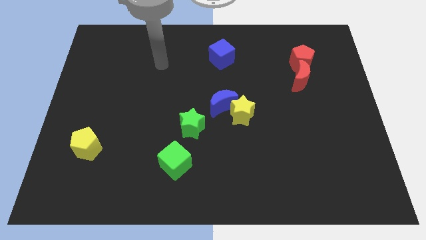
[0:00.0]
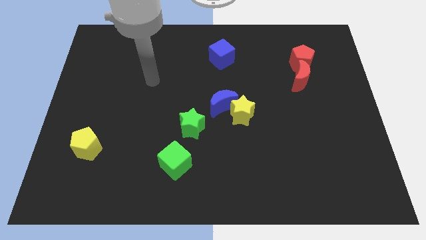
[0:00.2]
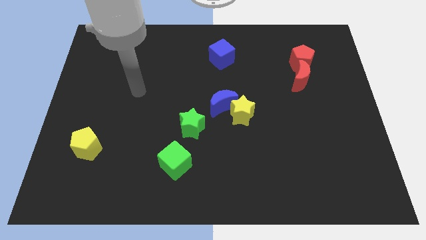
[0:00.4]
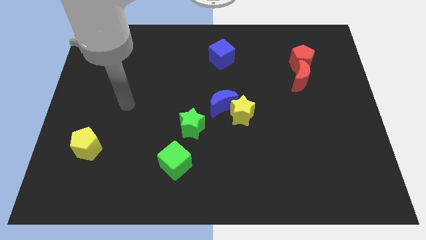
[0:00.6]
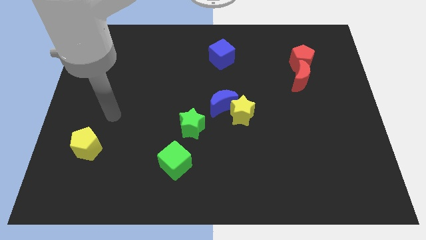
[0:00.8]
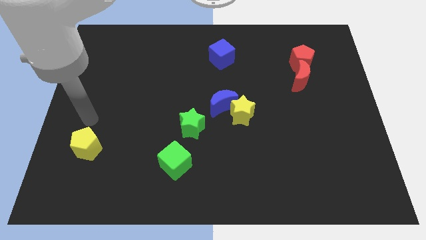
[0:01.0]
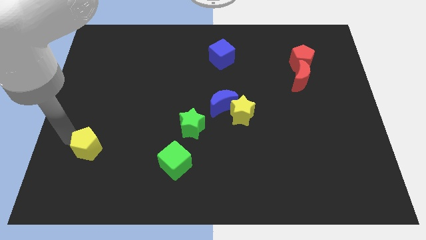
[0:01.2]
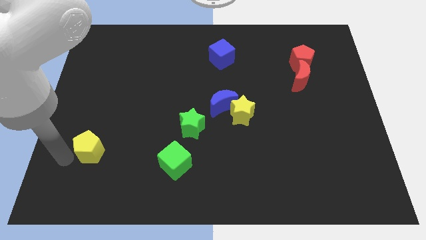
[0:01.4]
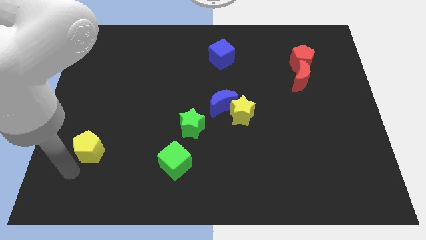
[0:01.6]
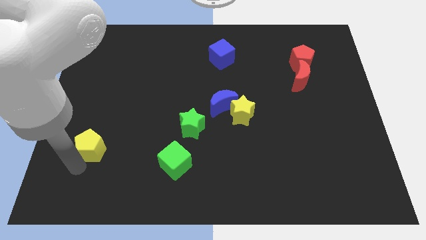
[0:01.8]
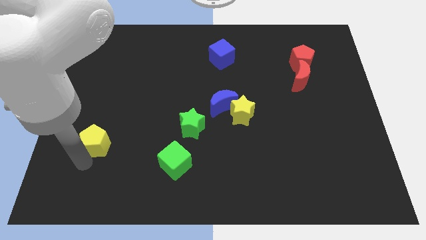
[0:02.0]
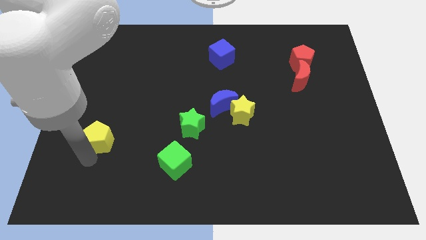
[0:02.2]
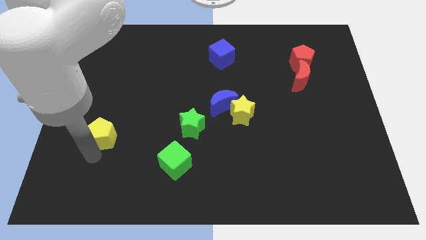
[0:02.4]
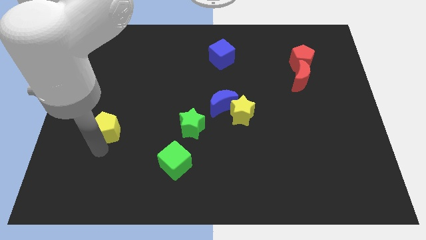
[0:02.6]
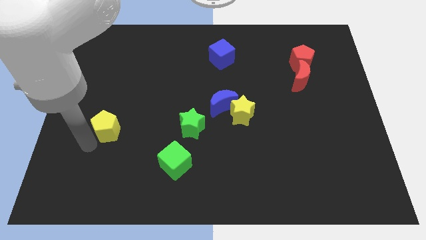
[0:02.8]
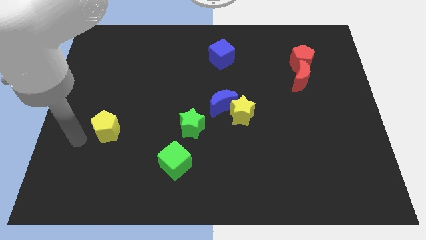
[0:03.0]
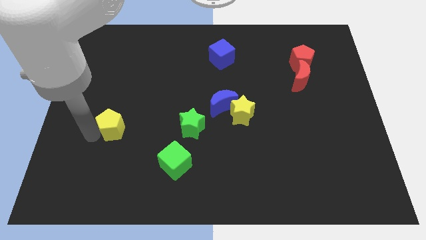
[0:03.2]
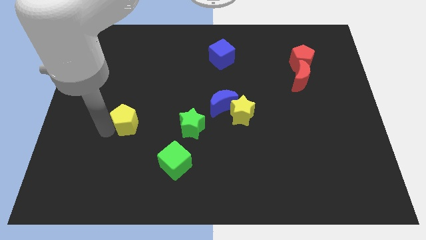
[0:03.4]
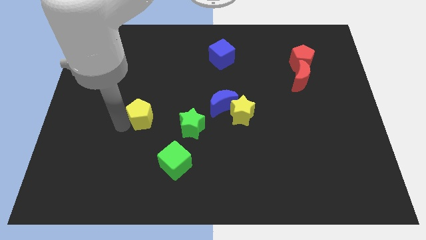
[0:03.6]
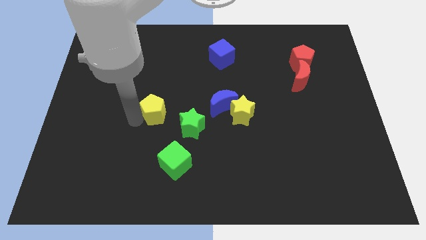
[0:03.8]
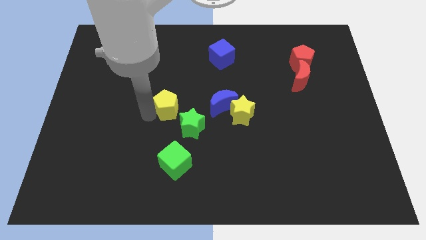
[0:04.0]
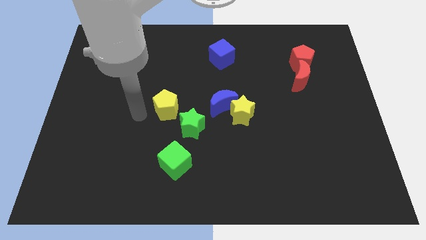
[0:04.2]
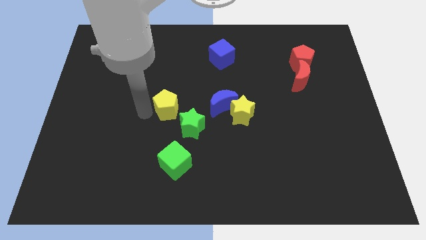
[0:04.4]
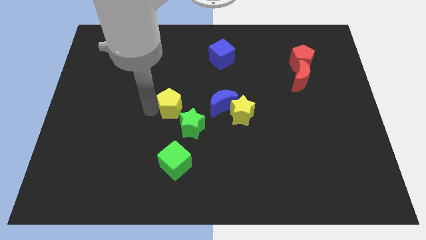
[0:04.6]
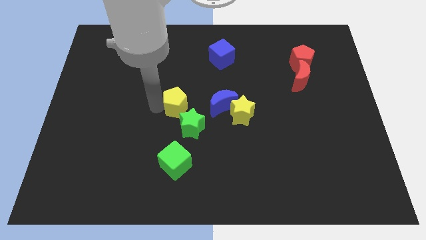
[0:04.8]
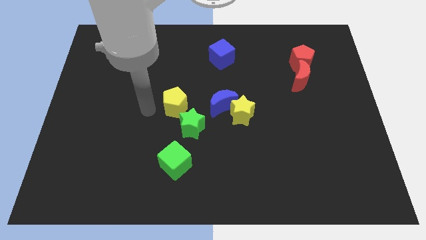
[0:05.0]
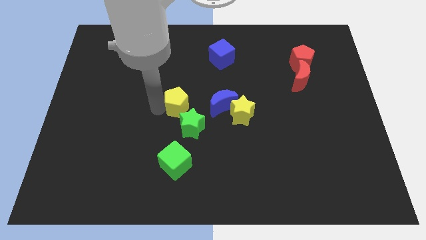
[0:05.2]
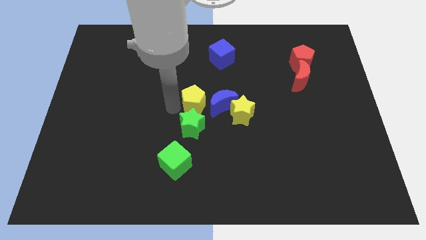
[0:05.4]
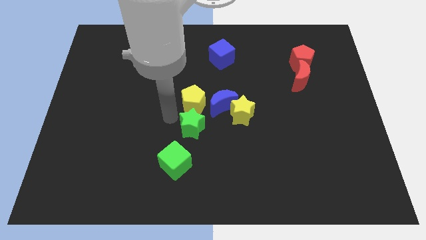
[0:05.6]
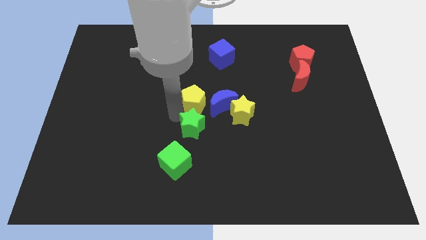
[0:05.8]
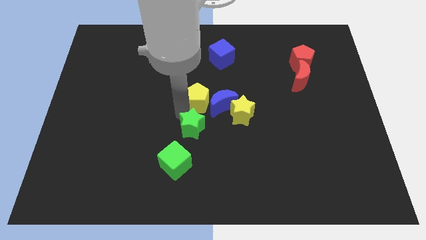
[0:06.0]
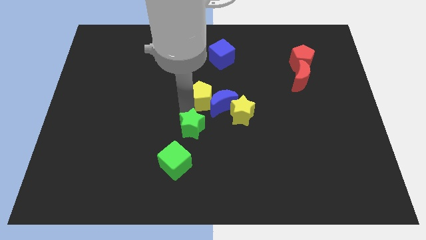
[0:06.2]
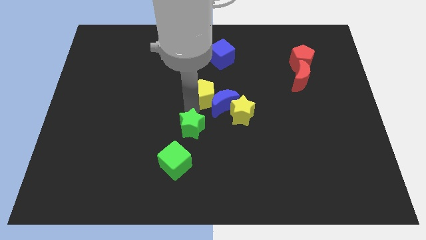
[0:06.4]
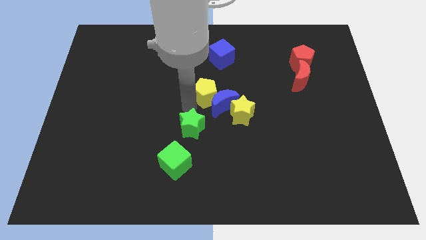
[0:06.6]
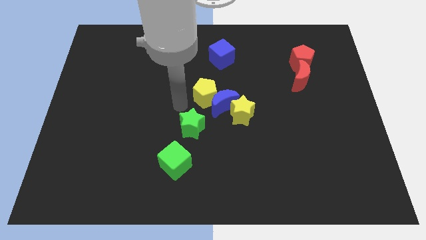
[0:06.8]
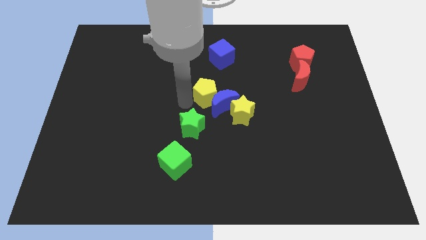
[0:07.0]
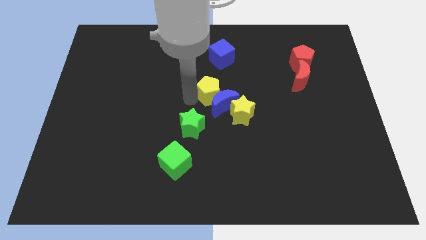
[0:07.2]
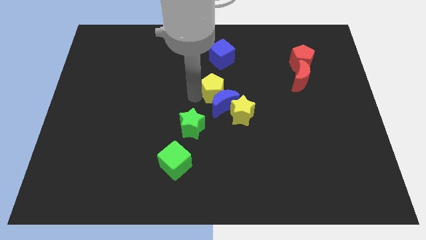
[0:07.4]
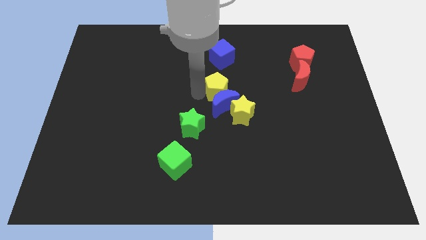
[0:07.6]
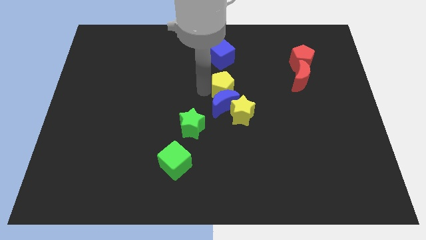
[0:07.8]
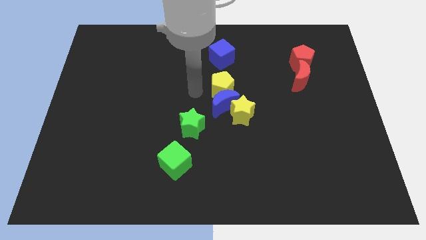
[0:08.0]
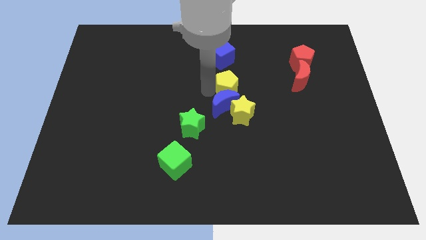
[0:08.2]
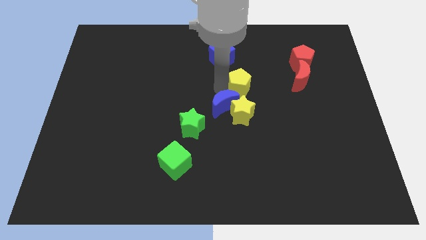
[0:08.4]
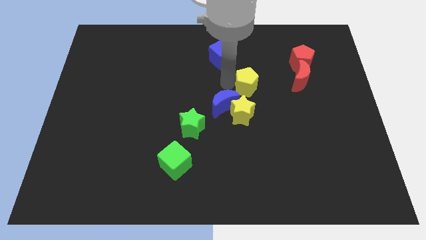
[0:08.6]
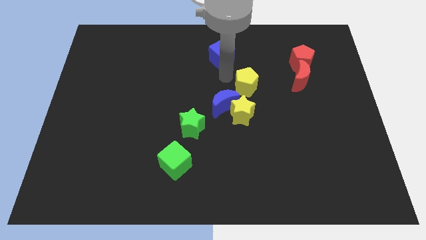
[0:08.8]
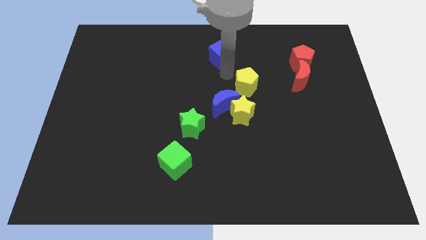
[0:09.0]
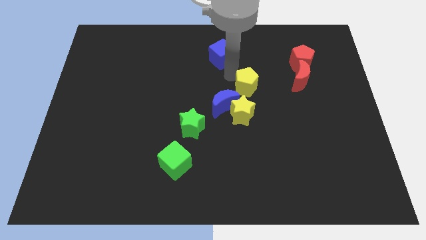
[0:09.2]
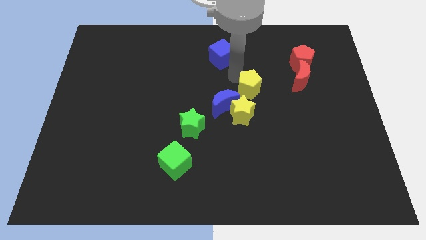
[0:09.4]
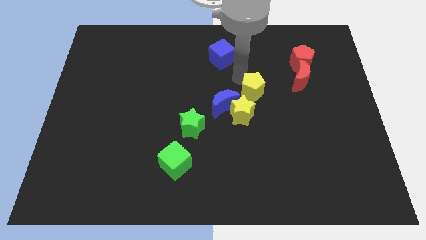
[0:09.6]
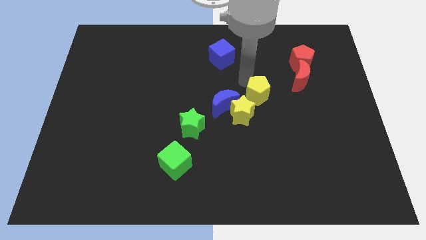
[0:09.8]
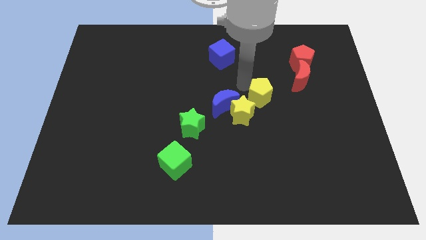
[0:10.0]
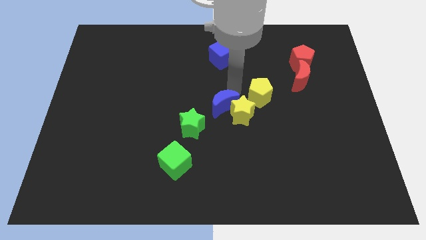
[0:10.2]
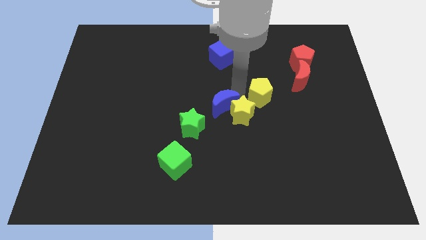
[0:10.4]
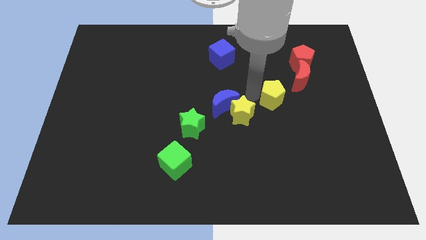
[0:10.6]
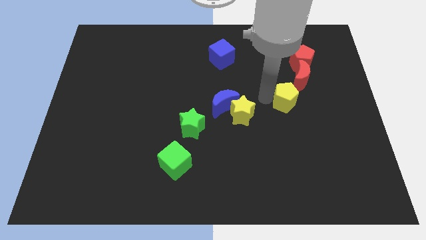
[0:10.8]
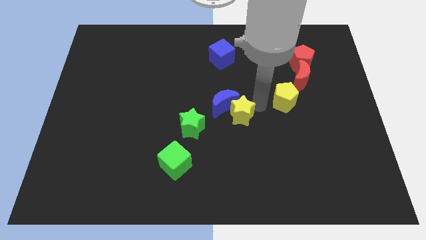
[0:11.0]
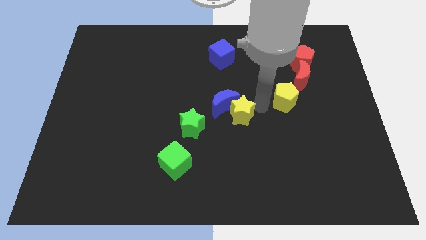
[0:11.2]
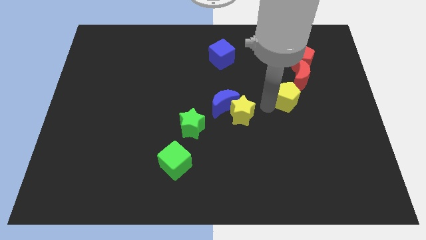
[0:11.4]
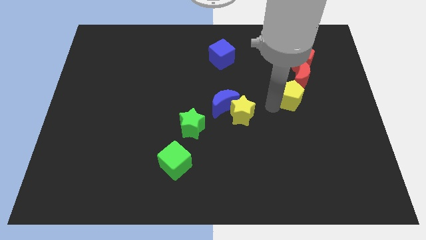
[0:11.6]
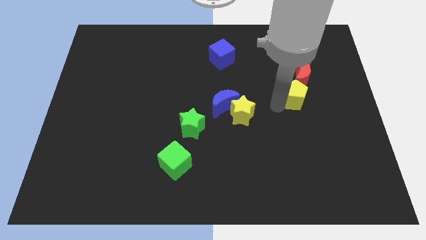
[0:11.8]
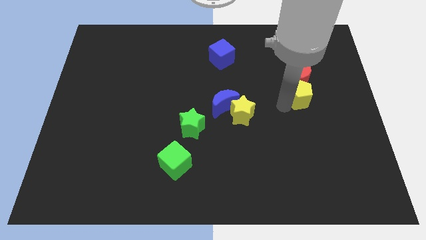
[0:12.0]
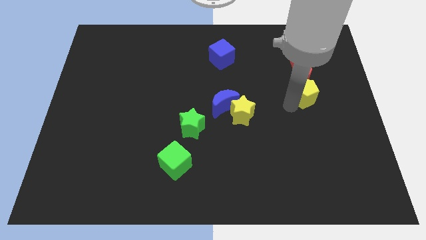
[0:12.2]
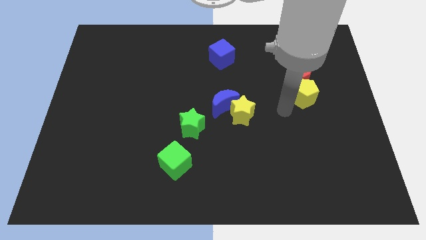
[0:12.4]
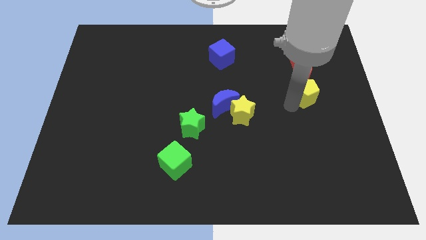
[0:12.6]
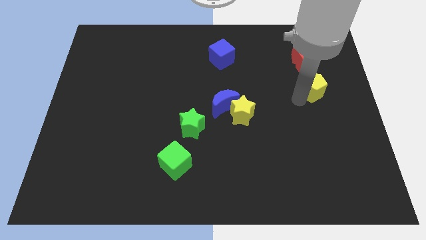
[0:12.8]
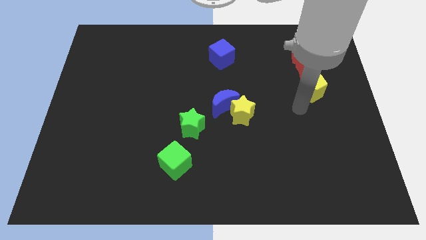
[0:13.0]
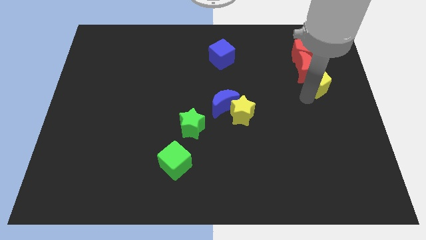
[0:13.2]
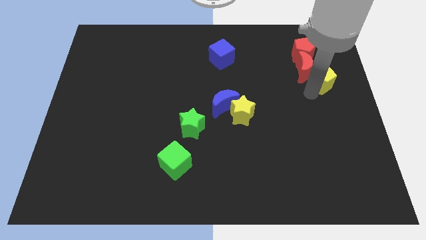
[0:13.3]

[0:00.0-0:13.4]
put the yellow pentagon to the bottom right of the red pentagon

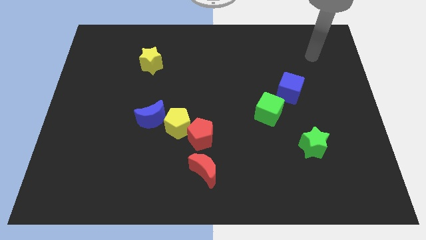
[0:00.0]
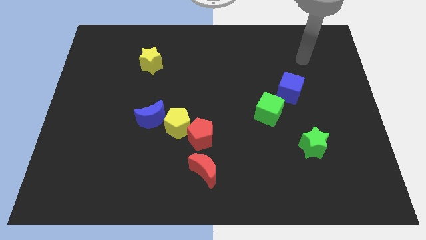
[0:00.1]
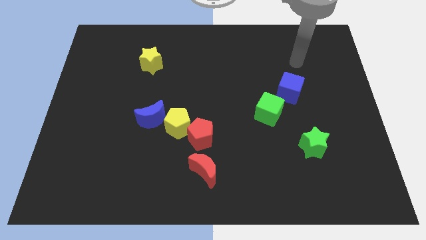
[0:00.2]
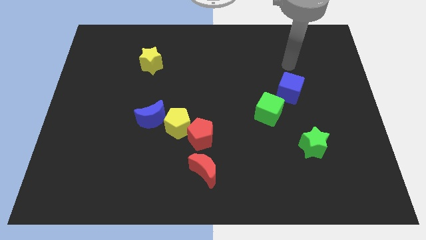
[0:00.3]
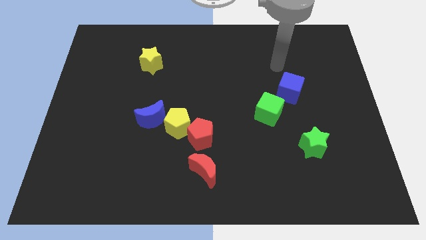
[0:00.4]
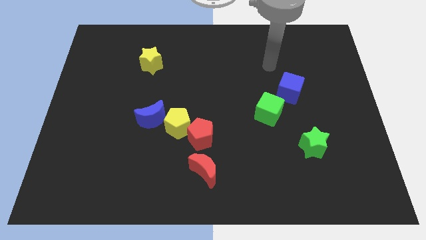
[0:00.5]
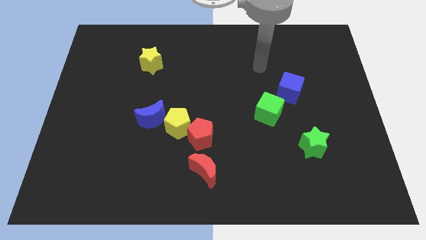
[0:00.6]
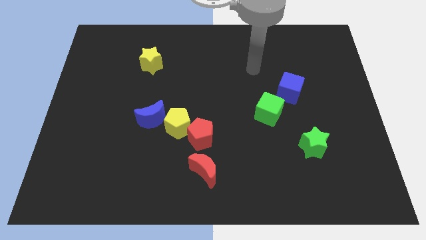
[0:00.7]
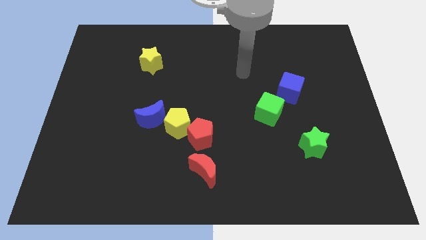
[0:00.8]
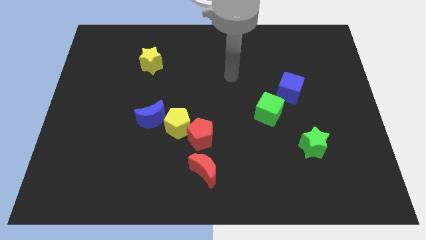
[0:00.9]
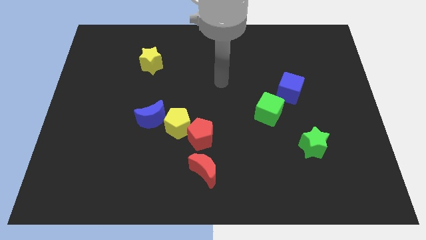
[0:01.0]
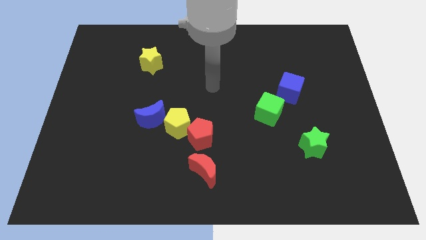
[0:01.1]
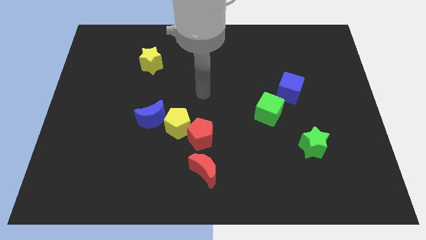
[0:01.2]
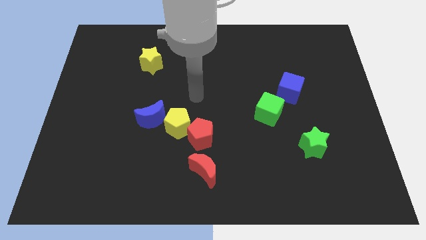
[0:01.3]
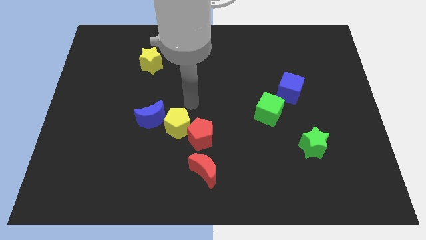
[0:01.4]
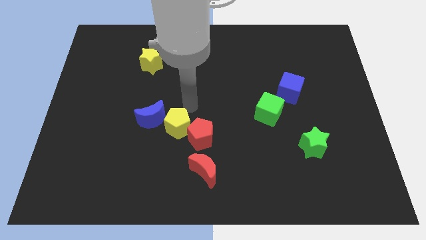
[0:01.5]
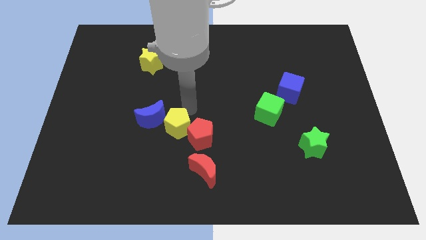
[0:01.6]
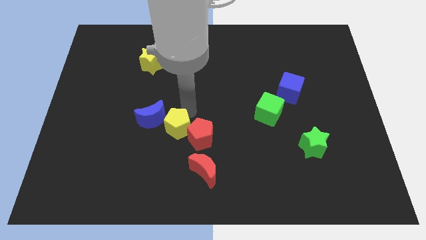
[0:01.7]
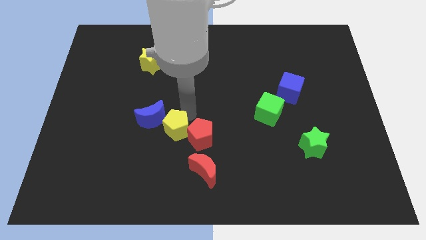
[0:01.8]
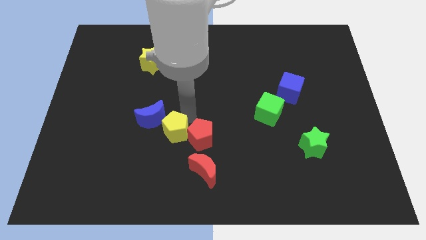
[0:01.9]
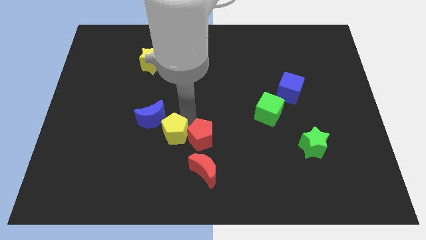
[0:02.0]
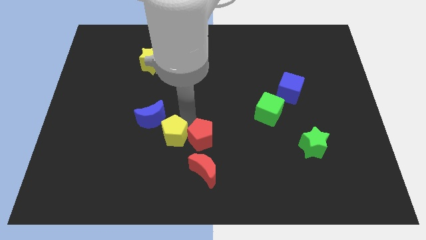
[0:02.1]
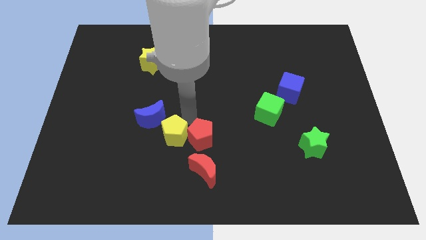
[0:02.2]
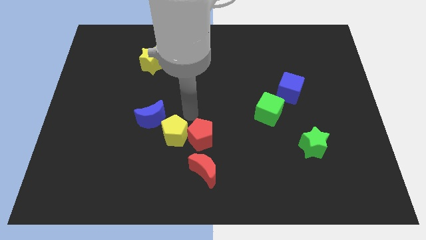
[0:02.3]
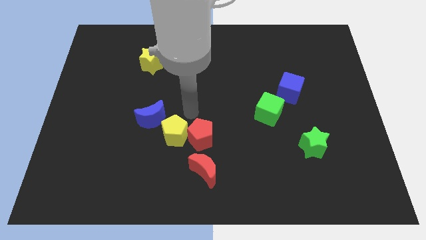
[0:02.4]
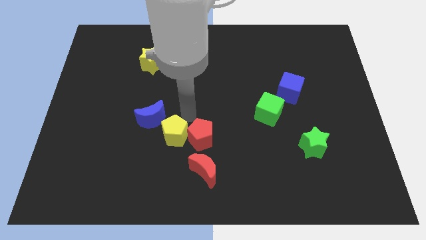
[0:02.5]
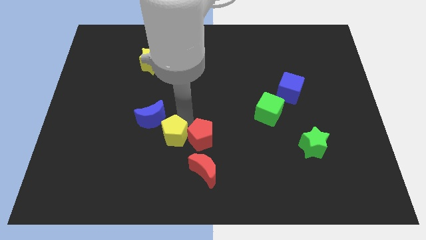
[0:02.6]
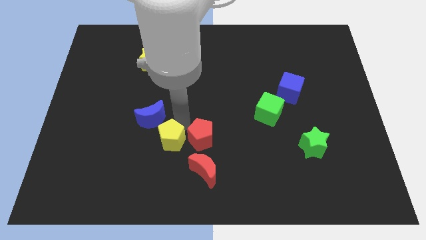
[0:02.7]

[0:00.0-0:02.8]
put the yellow pentagon to the bottom side of the blue moon
